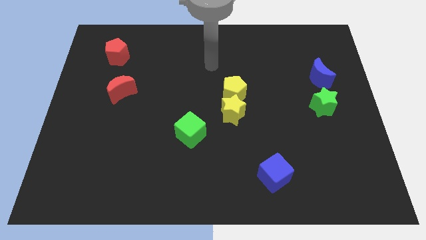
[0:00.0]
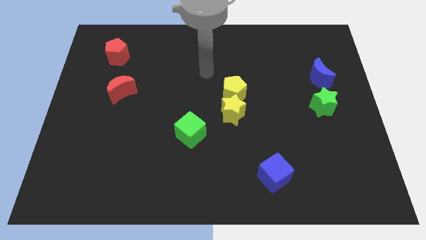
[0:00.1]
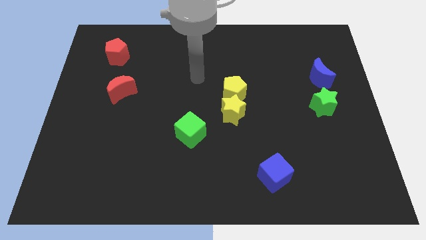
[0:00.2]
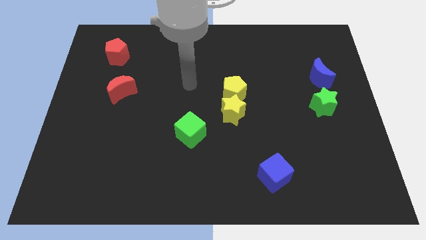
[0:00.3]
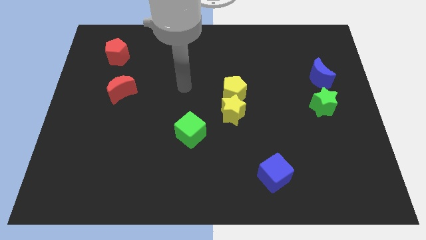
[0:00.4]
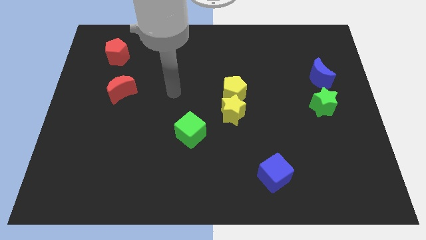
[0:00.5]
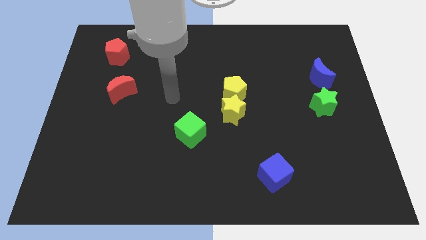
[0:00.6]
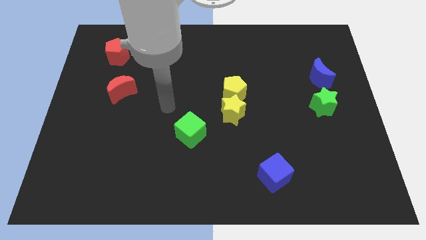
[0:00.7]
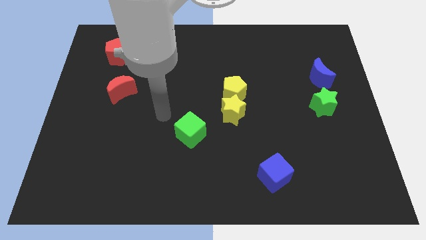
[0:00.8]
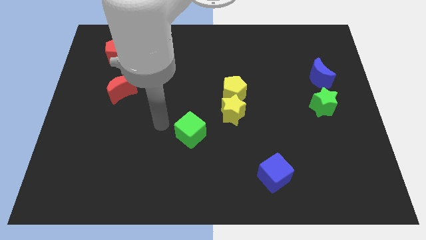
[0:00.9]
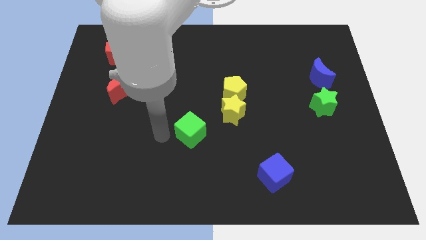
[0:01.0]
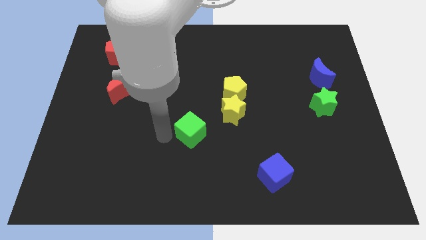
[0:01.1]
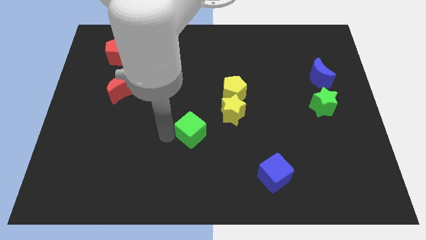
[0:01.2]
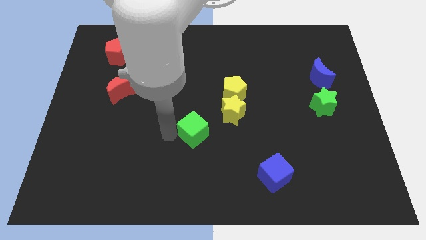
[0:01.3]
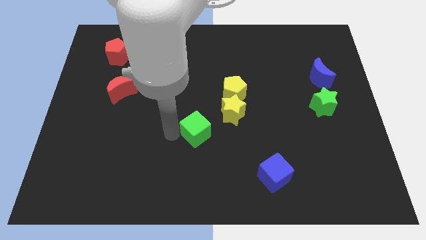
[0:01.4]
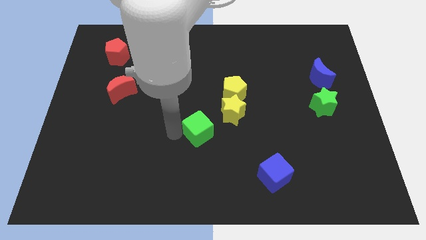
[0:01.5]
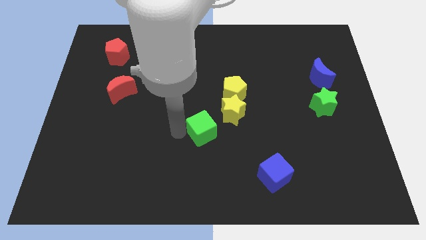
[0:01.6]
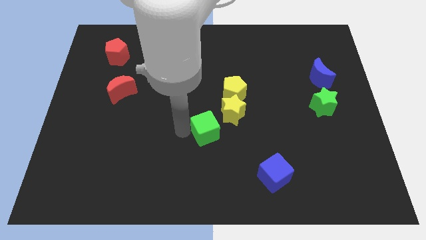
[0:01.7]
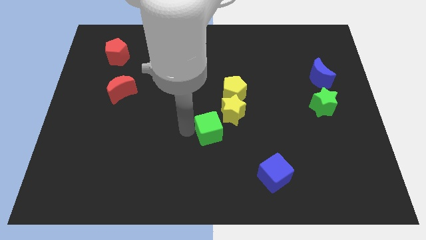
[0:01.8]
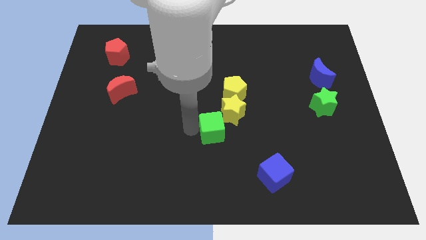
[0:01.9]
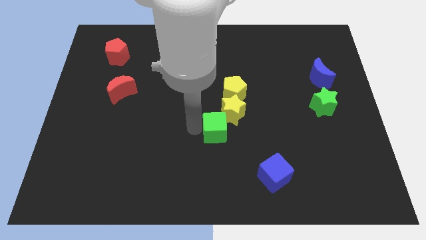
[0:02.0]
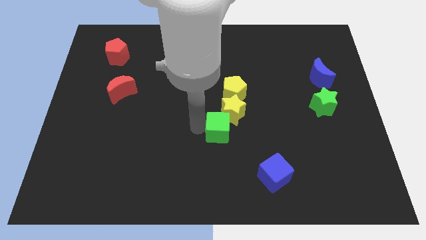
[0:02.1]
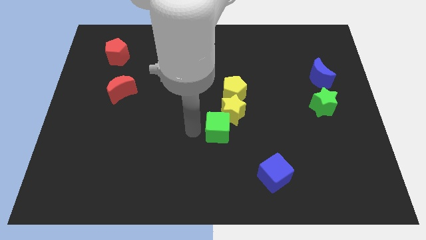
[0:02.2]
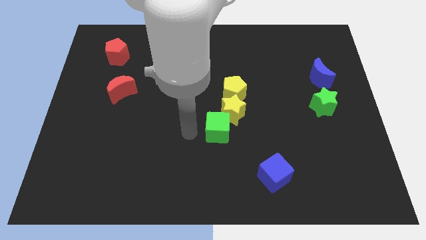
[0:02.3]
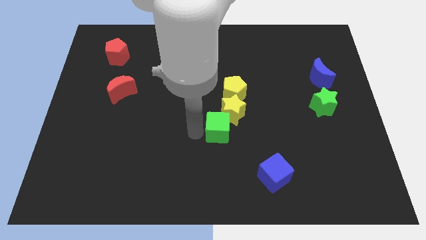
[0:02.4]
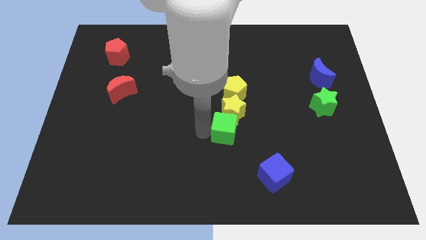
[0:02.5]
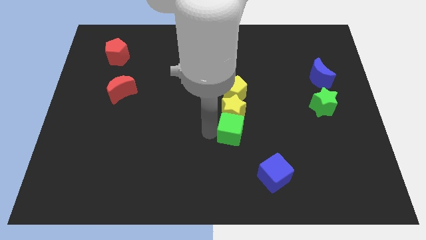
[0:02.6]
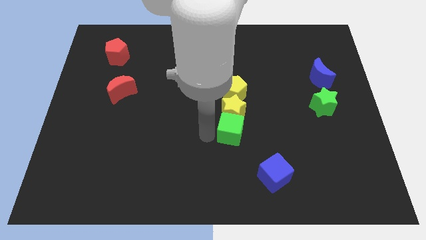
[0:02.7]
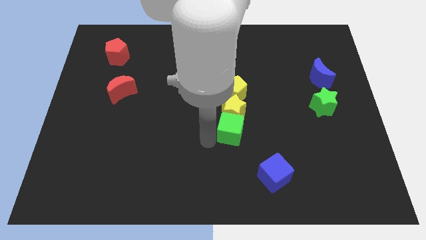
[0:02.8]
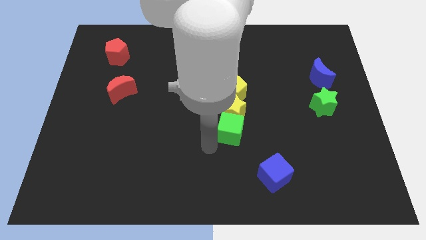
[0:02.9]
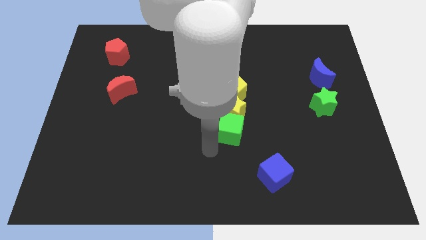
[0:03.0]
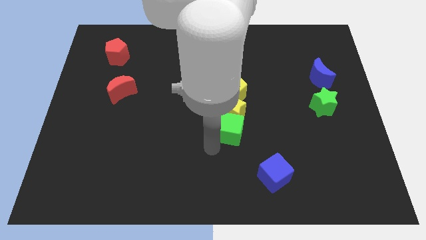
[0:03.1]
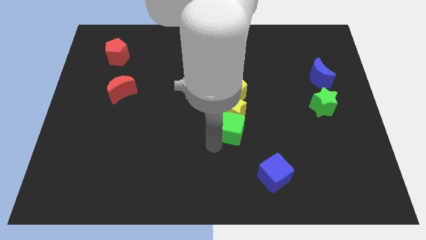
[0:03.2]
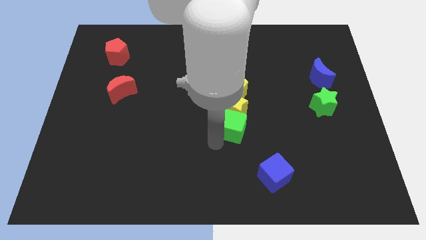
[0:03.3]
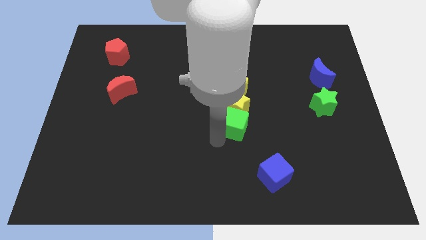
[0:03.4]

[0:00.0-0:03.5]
move the green cube somewhat diagonally up and right

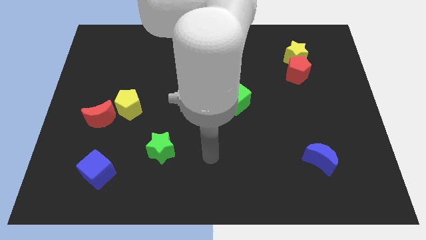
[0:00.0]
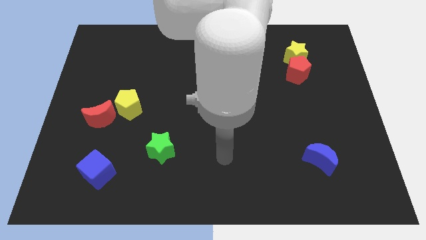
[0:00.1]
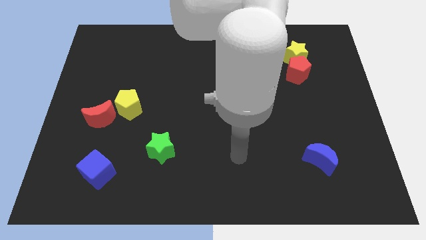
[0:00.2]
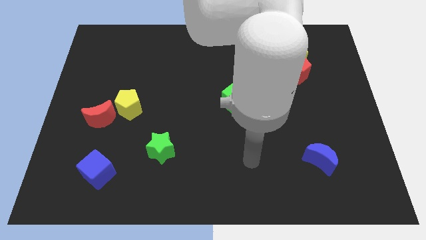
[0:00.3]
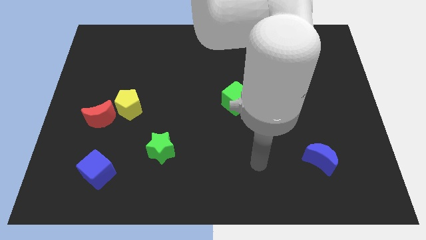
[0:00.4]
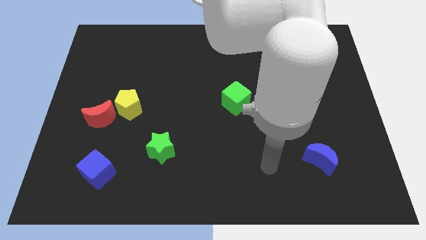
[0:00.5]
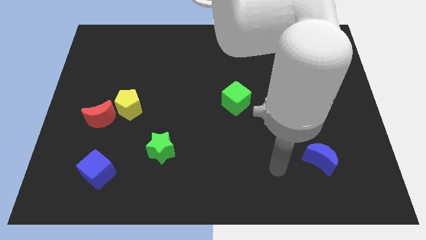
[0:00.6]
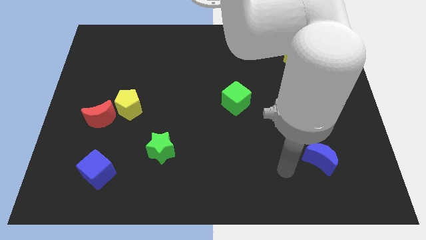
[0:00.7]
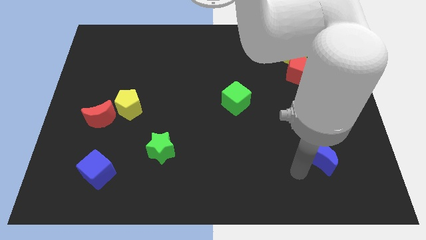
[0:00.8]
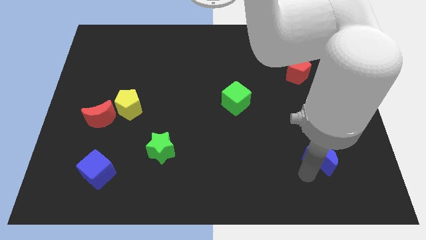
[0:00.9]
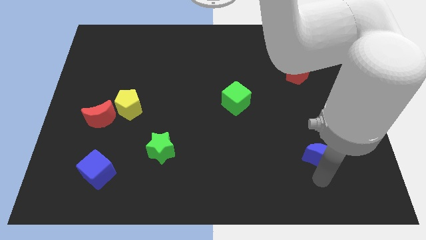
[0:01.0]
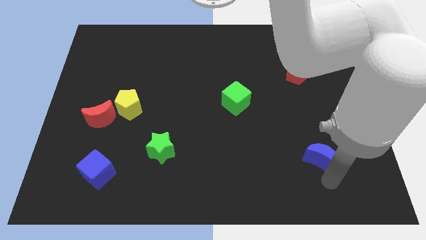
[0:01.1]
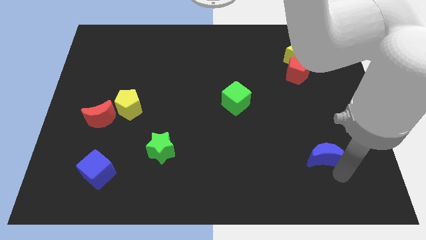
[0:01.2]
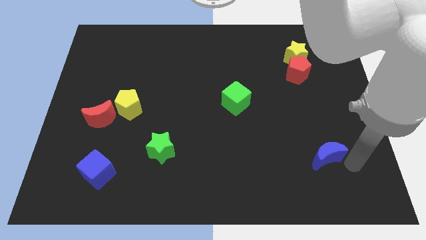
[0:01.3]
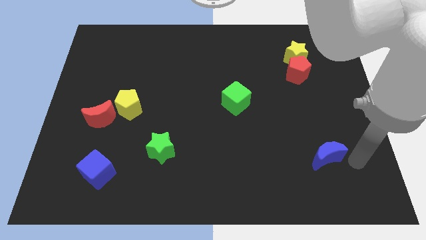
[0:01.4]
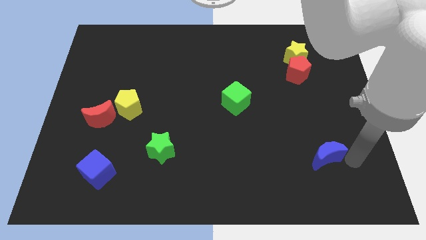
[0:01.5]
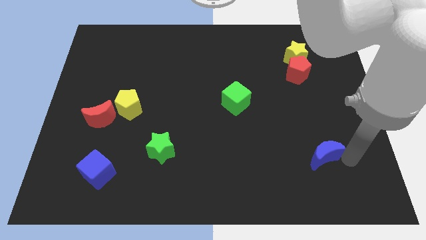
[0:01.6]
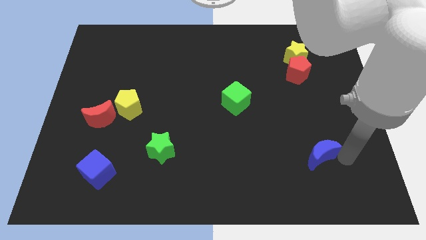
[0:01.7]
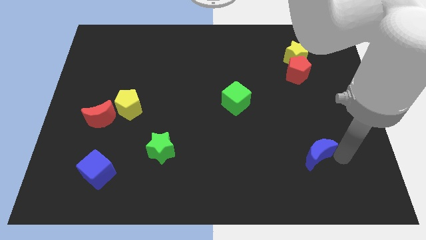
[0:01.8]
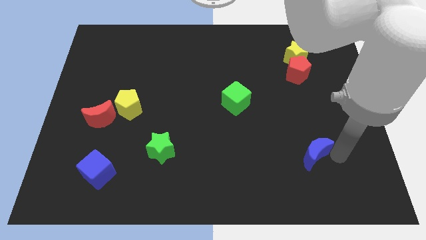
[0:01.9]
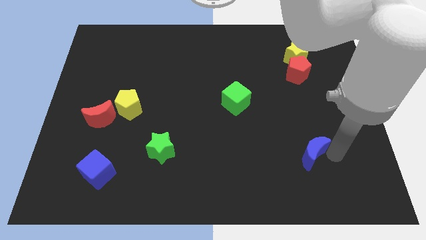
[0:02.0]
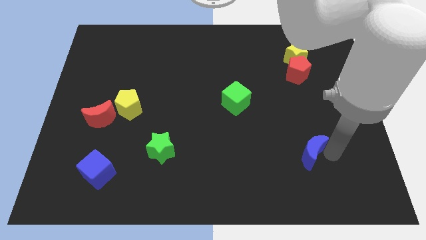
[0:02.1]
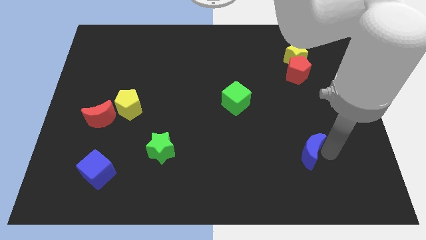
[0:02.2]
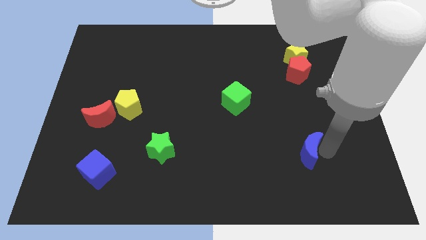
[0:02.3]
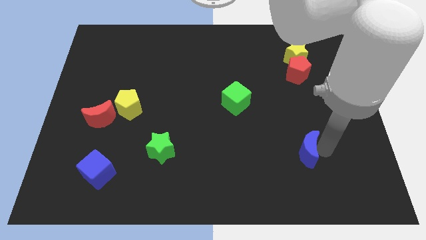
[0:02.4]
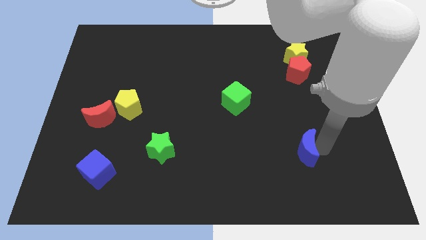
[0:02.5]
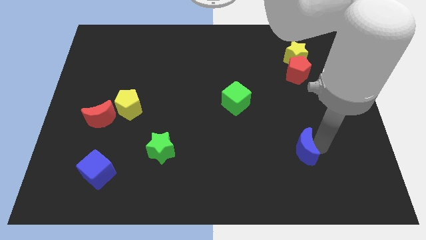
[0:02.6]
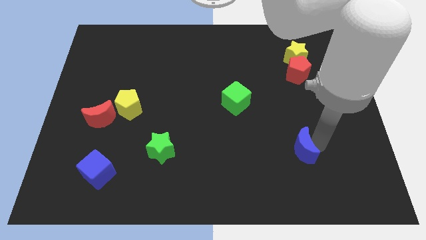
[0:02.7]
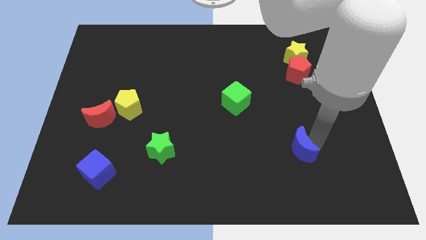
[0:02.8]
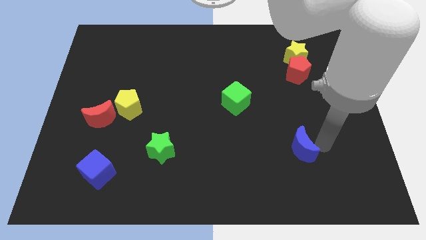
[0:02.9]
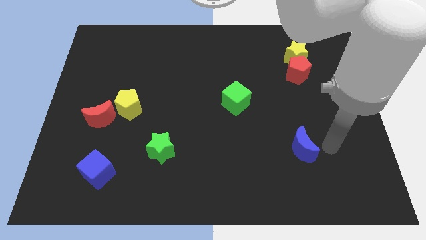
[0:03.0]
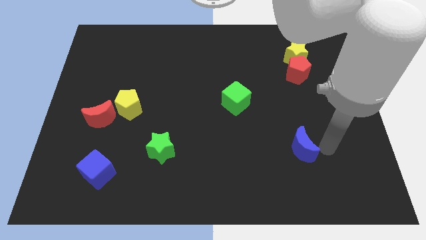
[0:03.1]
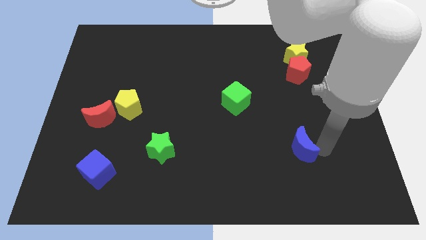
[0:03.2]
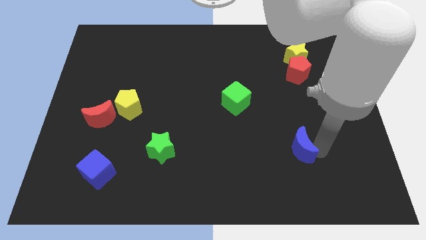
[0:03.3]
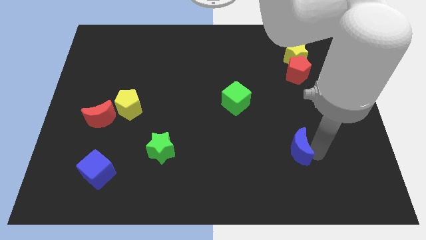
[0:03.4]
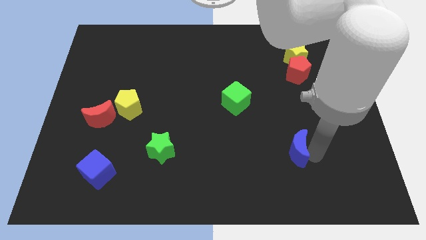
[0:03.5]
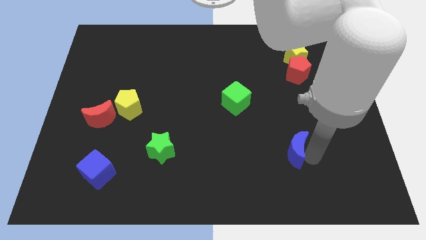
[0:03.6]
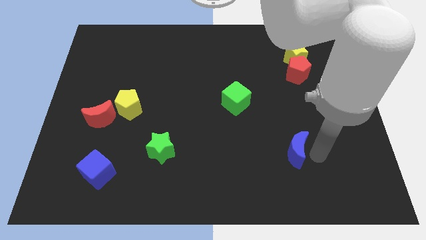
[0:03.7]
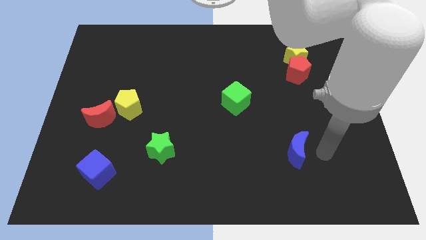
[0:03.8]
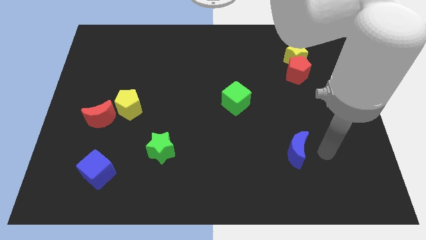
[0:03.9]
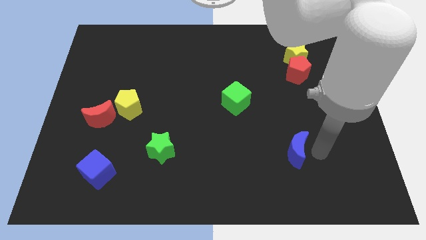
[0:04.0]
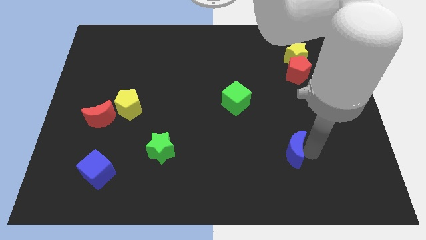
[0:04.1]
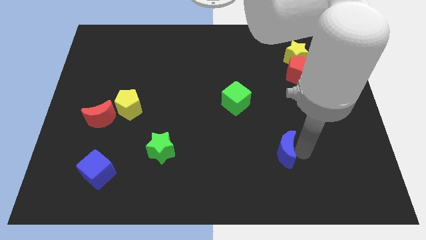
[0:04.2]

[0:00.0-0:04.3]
slide the blue moon left somewhat
